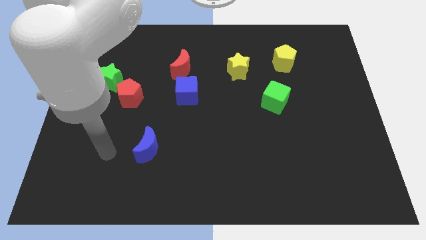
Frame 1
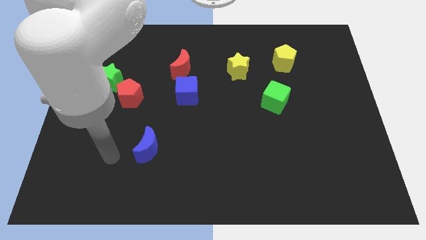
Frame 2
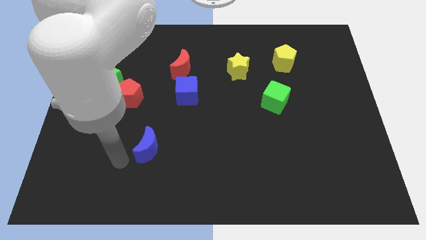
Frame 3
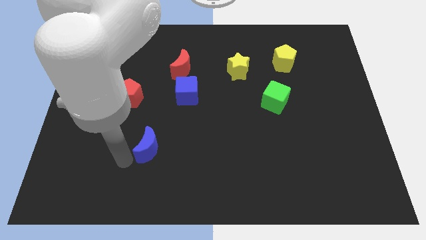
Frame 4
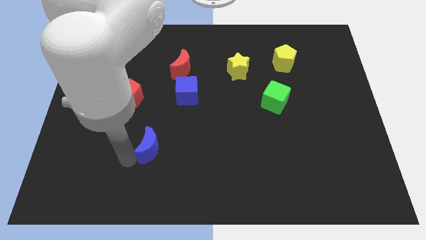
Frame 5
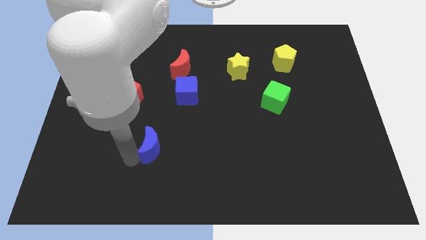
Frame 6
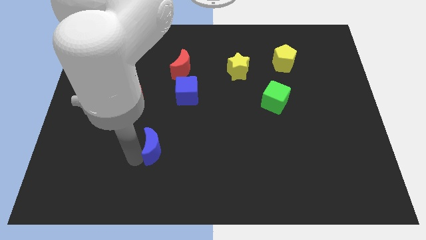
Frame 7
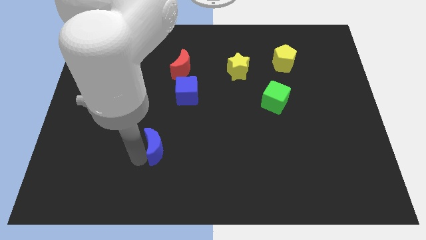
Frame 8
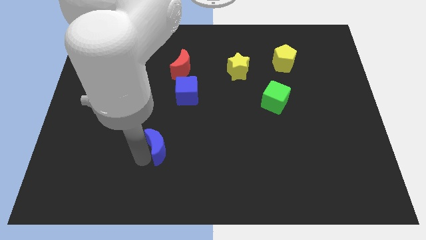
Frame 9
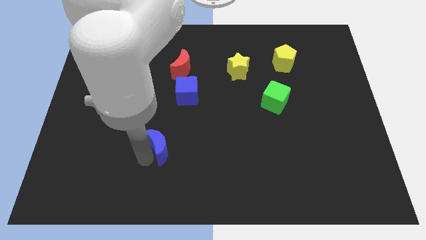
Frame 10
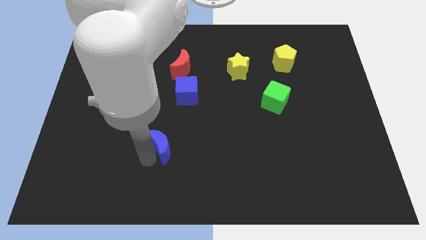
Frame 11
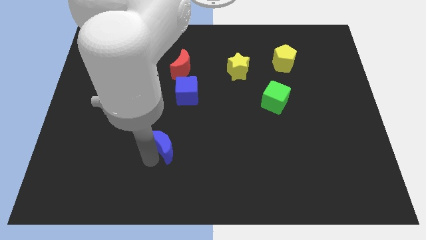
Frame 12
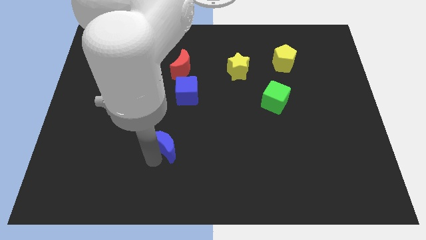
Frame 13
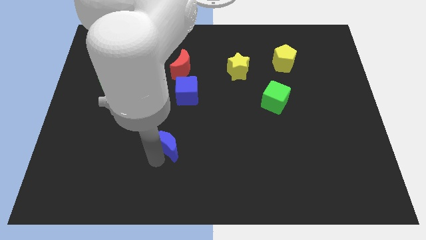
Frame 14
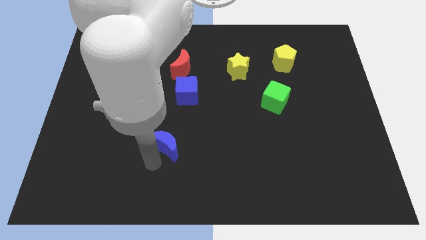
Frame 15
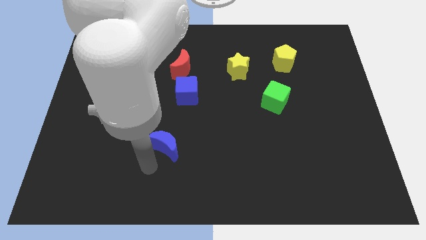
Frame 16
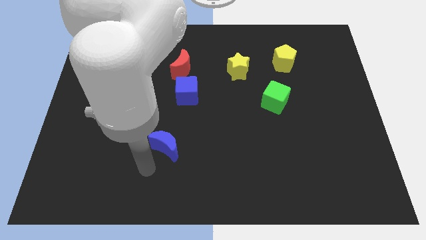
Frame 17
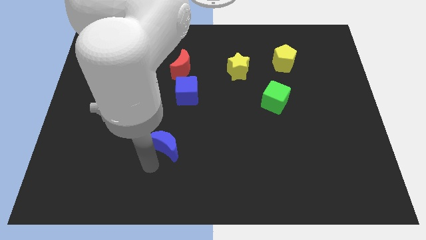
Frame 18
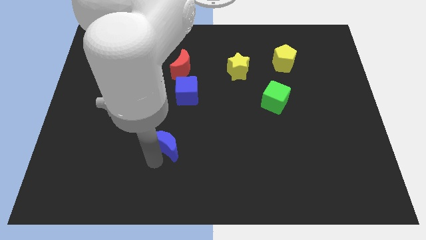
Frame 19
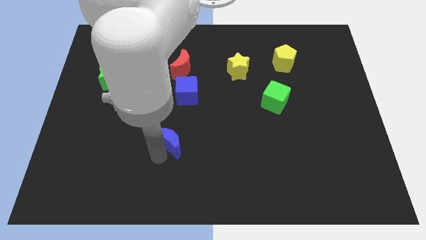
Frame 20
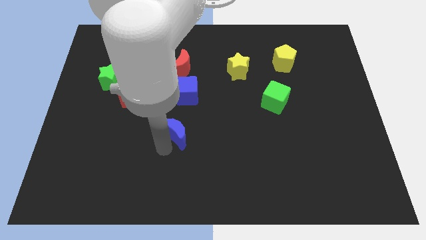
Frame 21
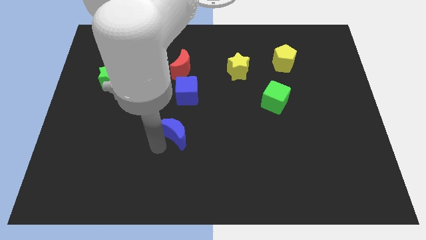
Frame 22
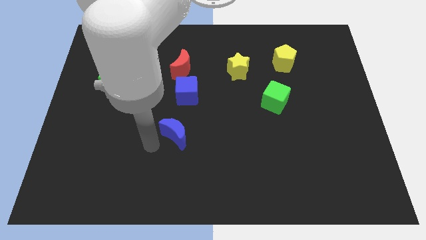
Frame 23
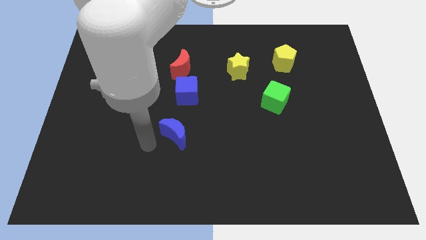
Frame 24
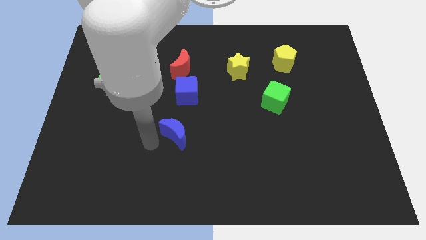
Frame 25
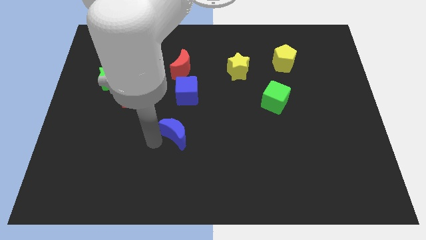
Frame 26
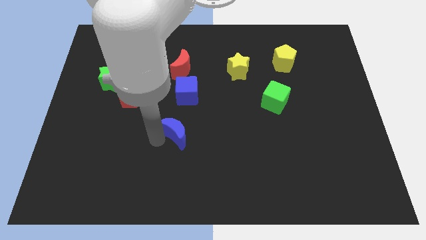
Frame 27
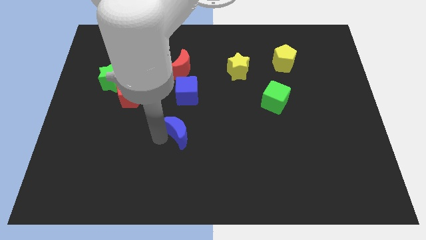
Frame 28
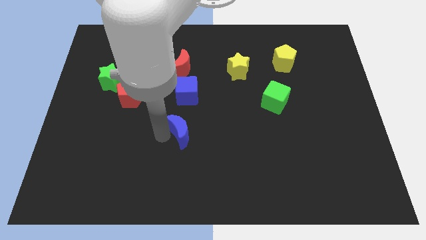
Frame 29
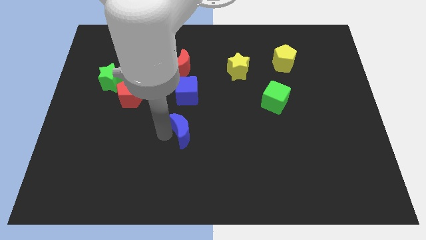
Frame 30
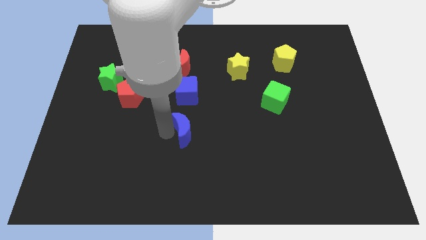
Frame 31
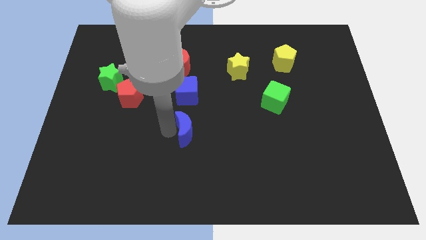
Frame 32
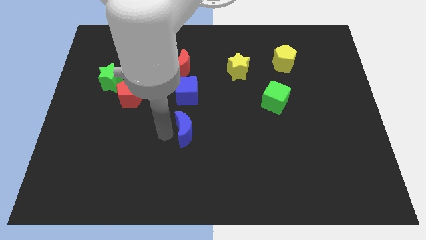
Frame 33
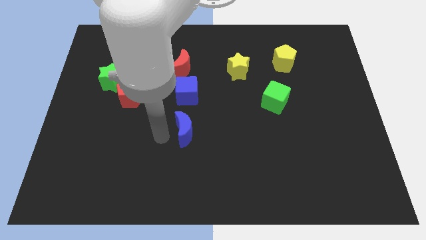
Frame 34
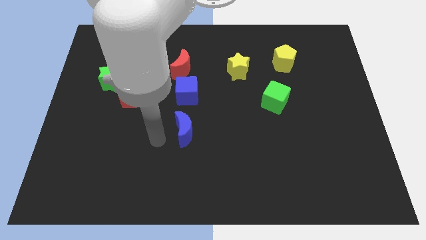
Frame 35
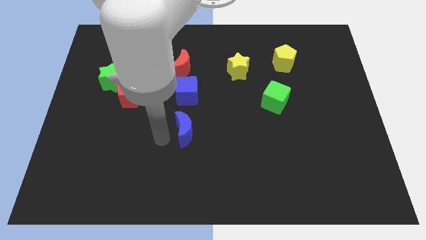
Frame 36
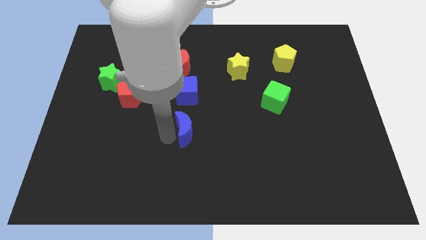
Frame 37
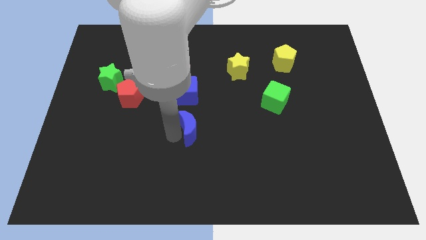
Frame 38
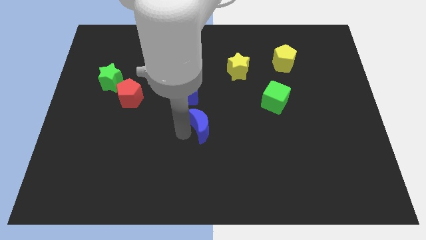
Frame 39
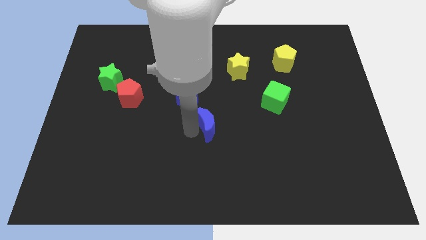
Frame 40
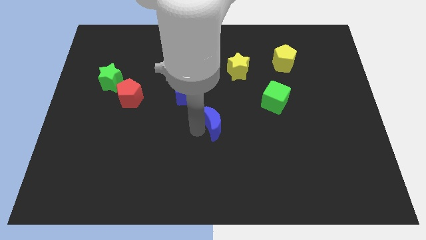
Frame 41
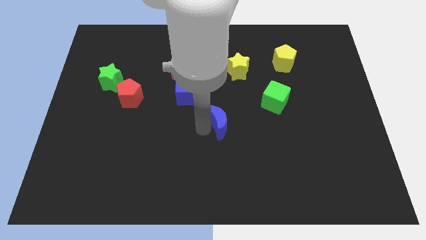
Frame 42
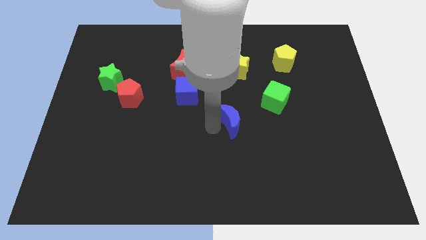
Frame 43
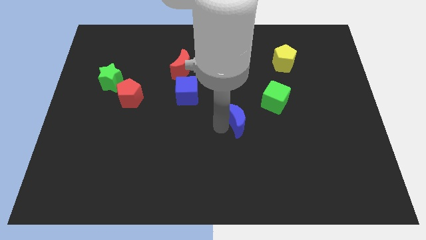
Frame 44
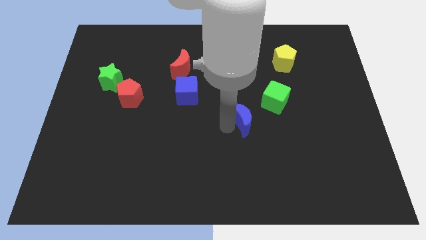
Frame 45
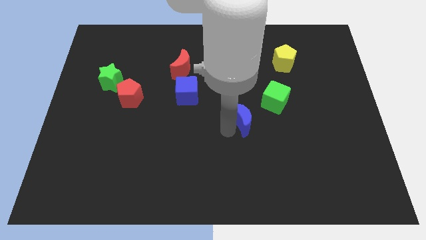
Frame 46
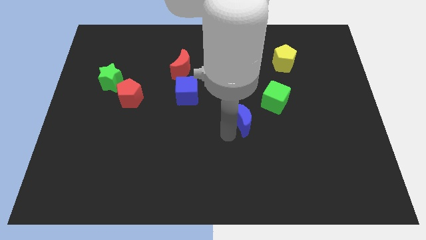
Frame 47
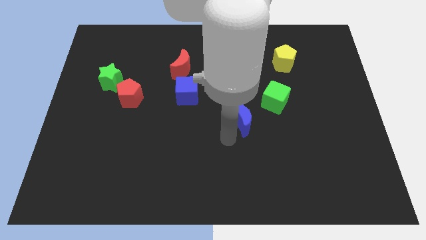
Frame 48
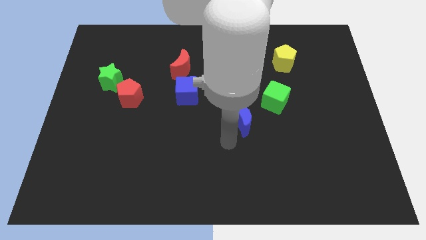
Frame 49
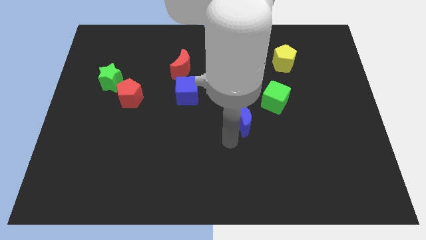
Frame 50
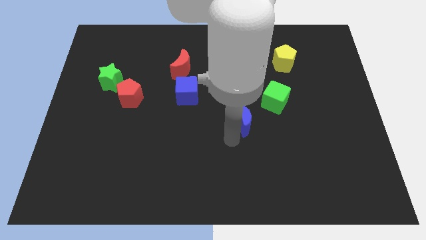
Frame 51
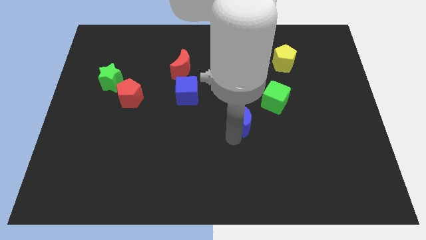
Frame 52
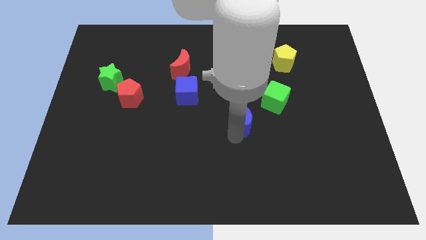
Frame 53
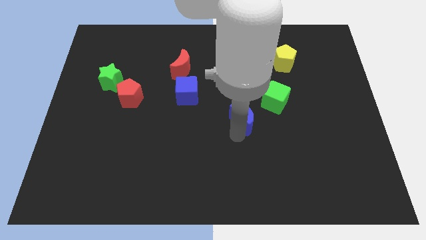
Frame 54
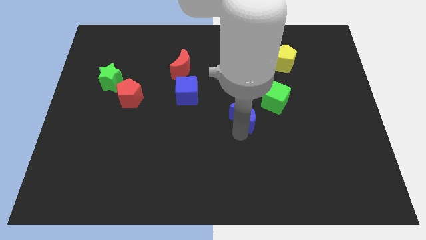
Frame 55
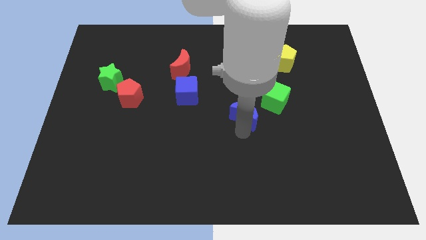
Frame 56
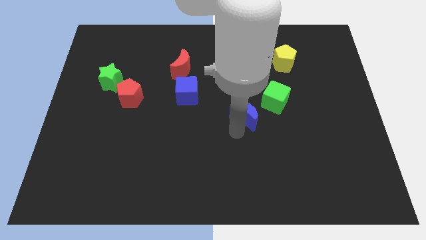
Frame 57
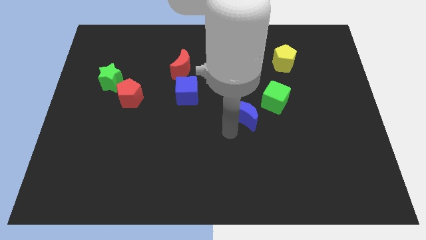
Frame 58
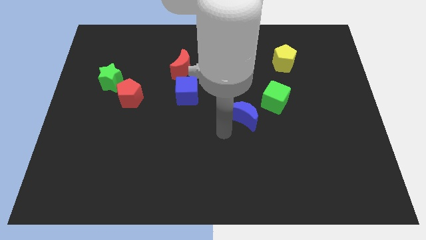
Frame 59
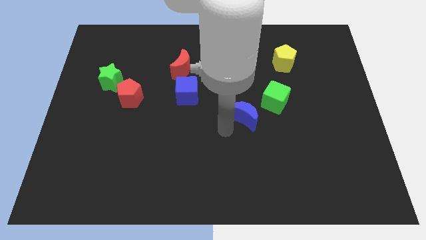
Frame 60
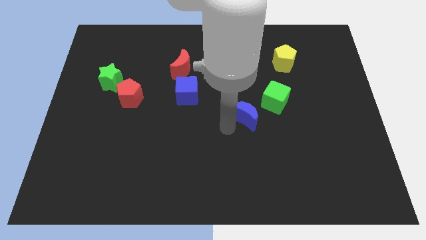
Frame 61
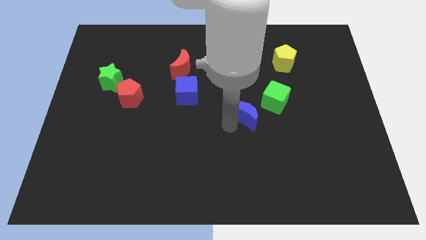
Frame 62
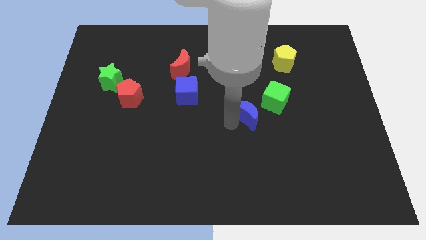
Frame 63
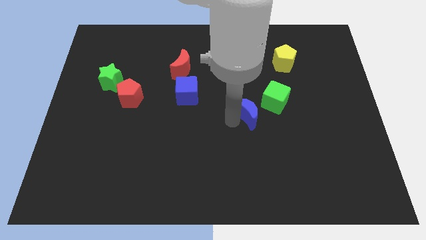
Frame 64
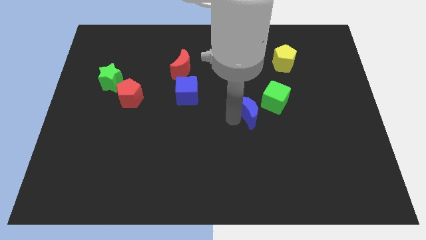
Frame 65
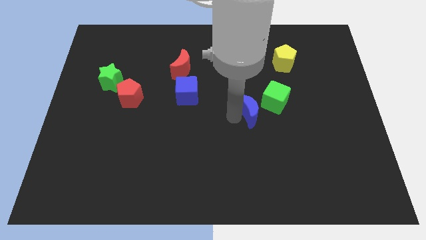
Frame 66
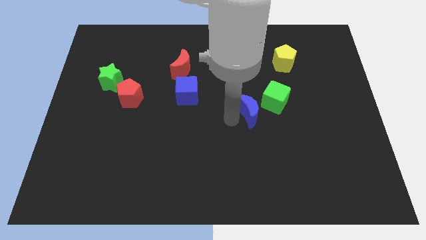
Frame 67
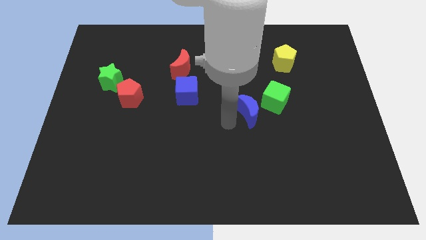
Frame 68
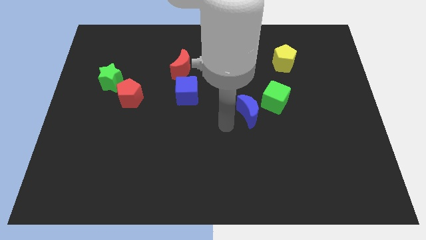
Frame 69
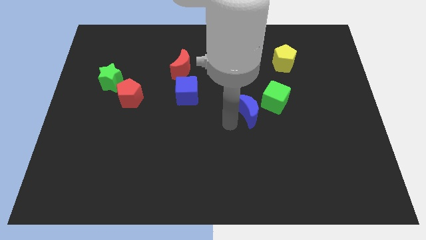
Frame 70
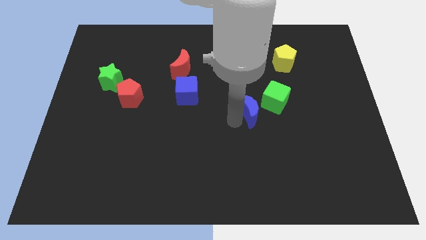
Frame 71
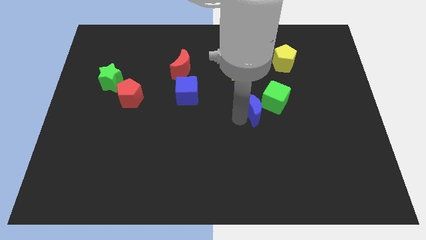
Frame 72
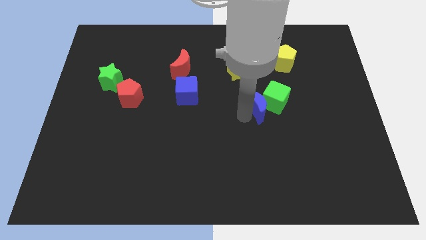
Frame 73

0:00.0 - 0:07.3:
slide the blue moon to the green cube

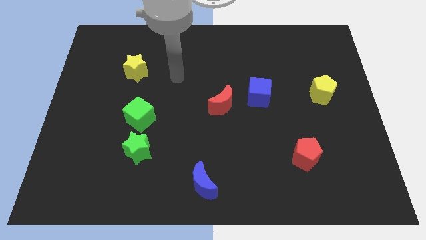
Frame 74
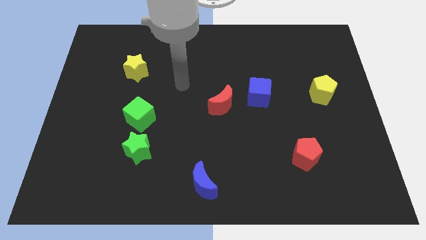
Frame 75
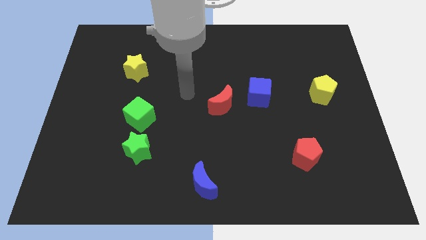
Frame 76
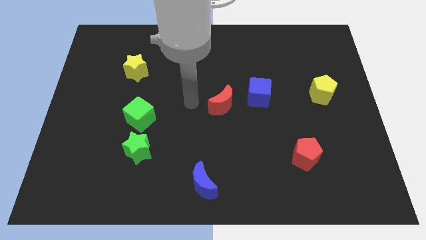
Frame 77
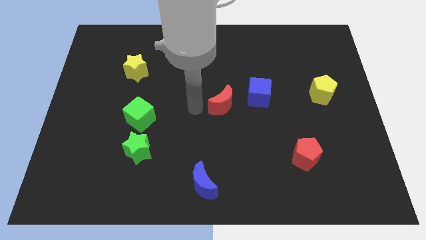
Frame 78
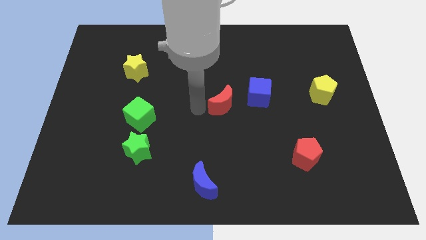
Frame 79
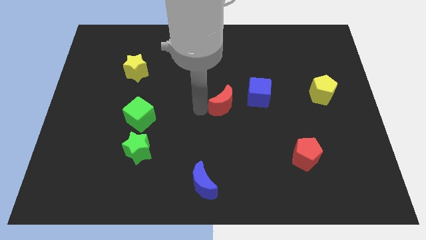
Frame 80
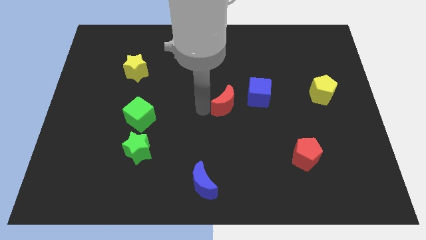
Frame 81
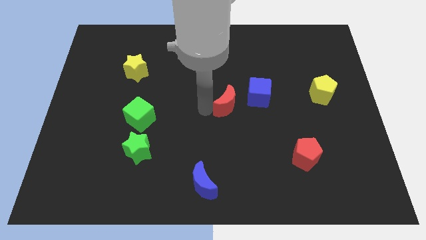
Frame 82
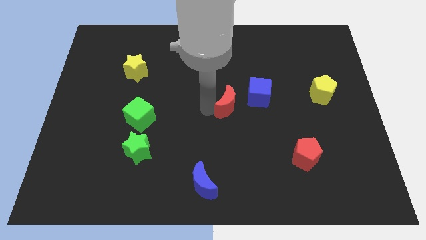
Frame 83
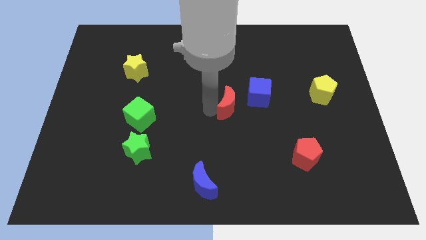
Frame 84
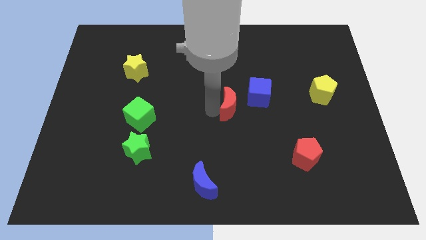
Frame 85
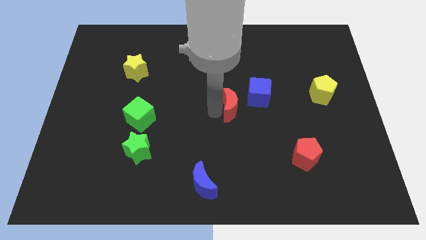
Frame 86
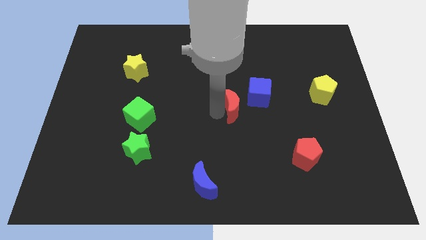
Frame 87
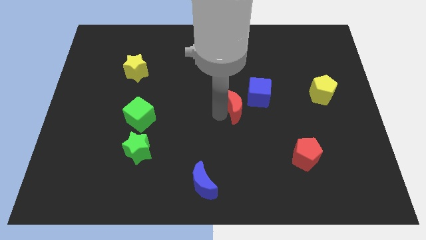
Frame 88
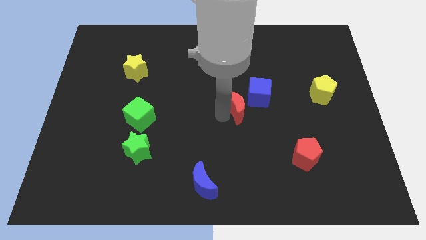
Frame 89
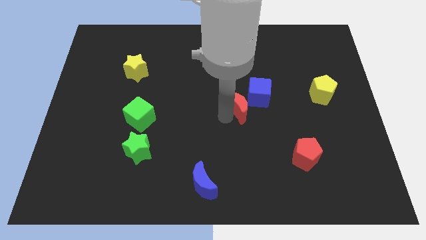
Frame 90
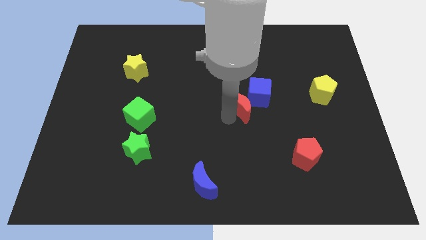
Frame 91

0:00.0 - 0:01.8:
slide the red moon close to the blue cube
